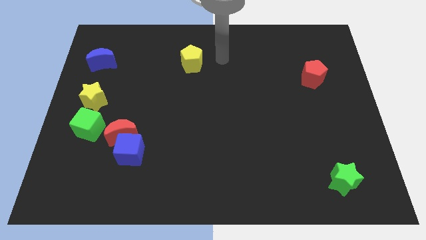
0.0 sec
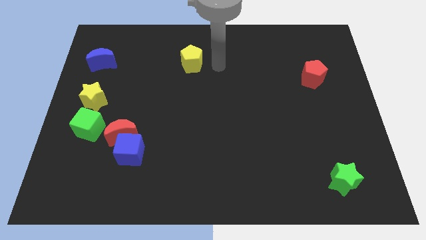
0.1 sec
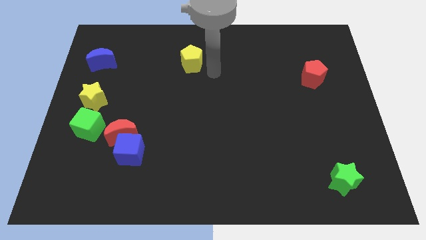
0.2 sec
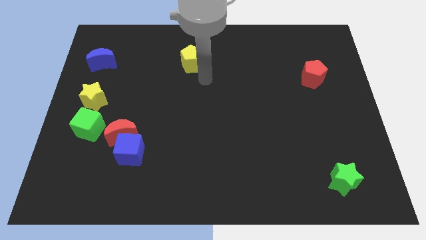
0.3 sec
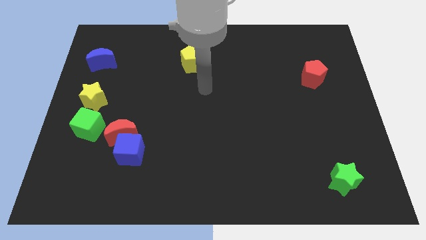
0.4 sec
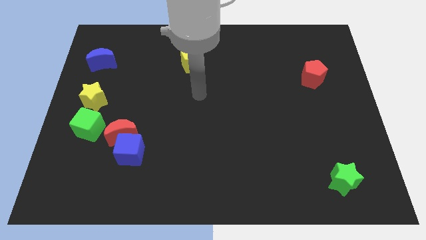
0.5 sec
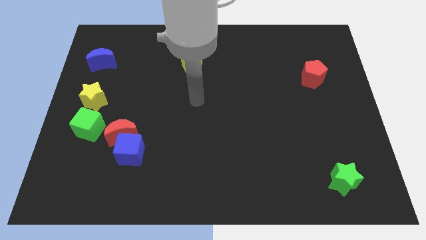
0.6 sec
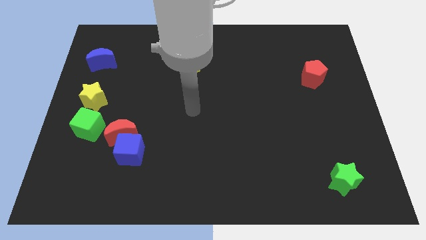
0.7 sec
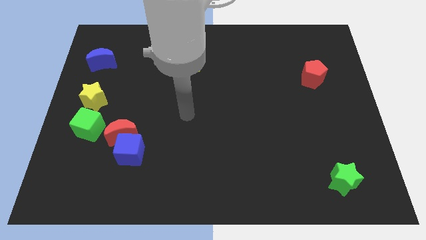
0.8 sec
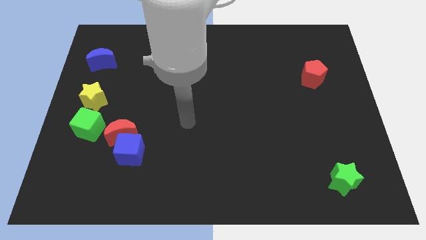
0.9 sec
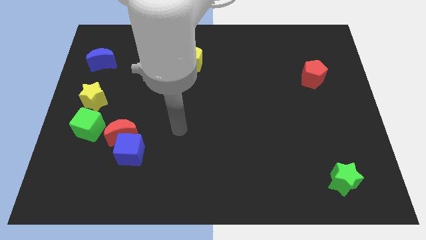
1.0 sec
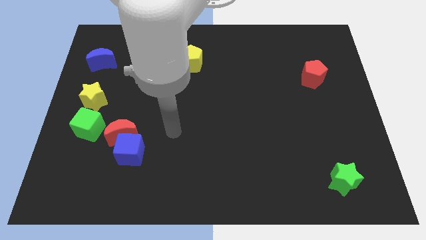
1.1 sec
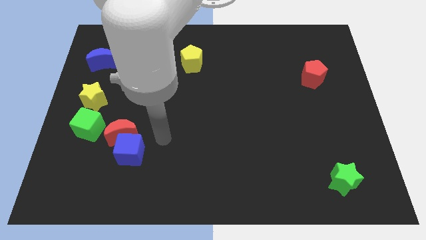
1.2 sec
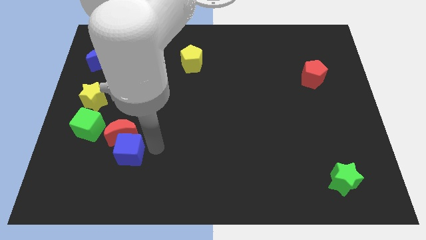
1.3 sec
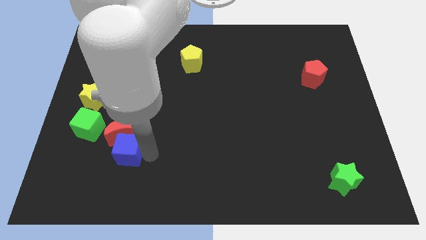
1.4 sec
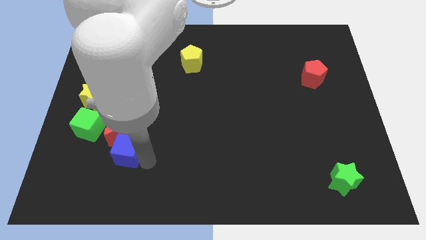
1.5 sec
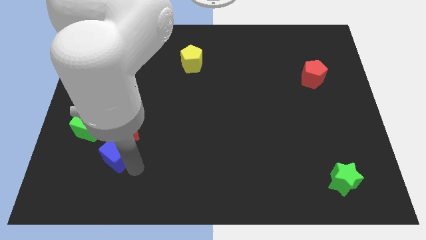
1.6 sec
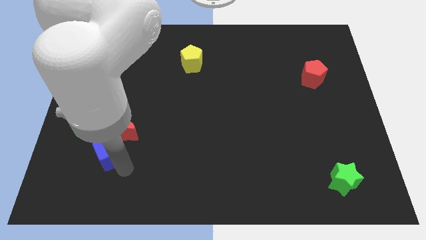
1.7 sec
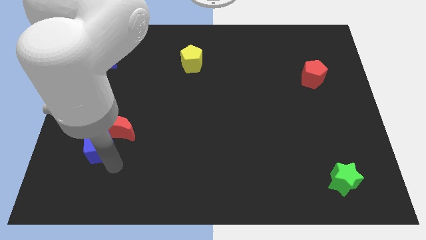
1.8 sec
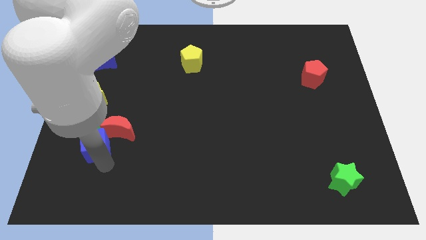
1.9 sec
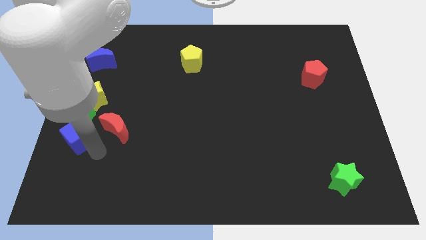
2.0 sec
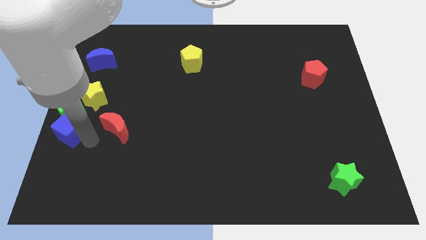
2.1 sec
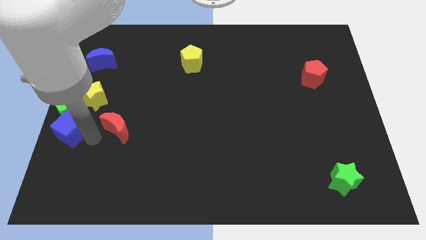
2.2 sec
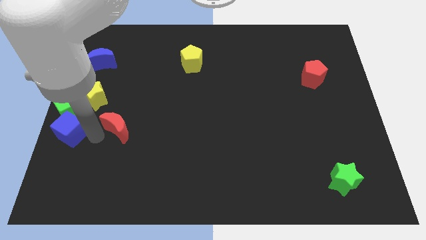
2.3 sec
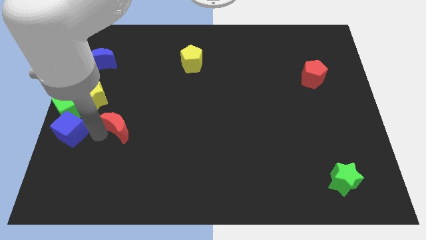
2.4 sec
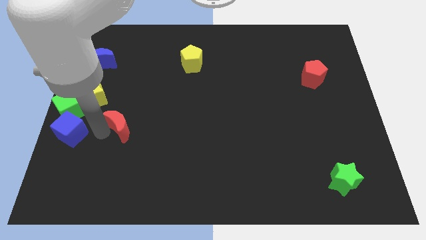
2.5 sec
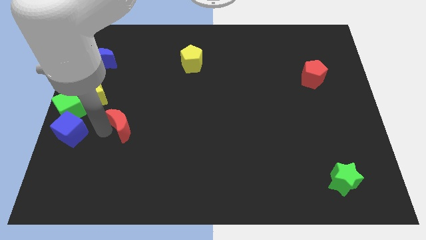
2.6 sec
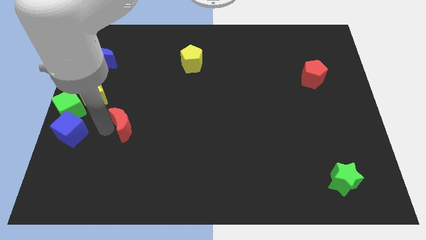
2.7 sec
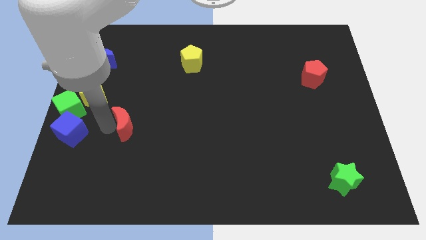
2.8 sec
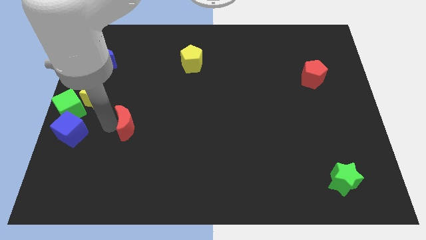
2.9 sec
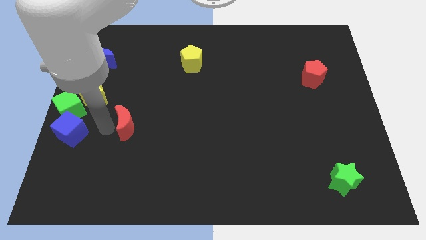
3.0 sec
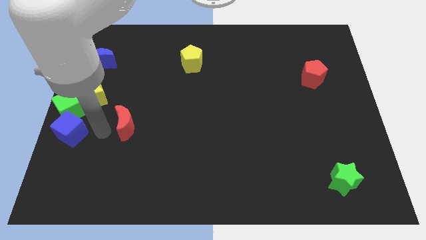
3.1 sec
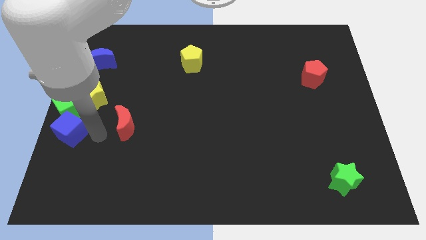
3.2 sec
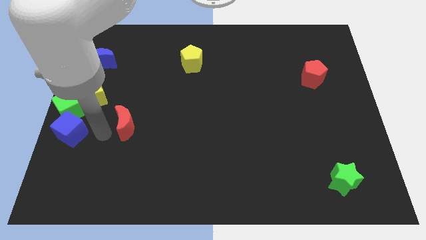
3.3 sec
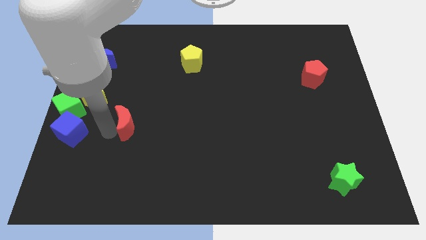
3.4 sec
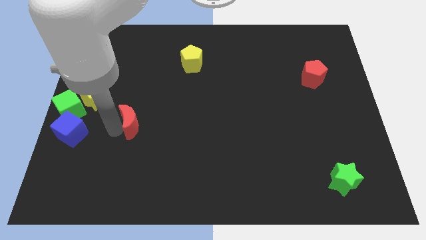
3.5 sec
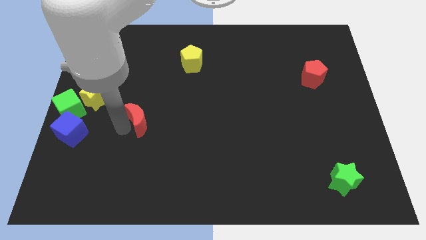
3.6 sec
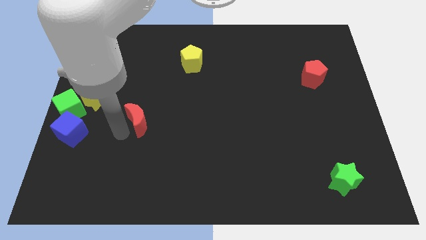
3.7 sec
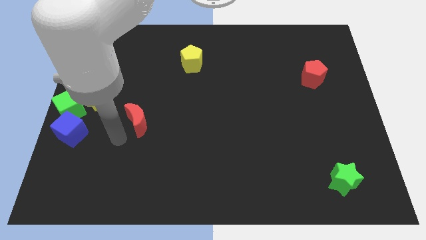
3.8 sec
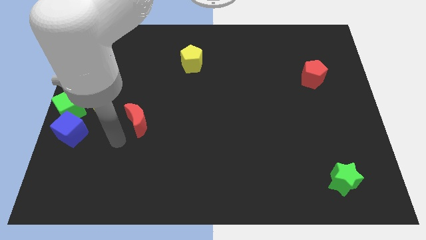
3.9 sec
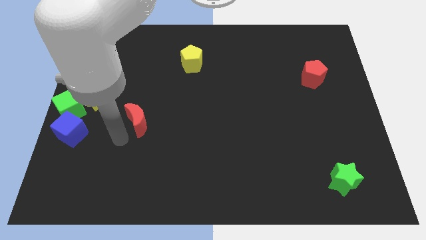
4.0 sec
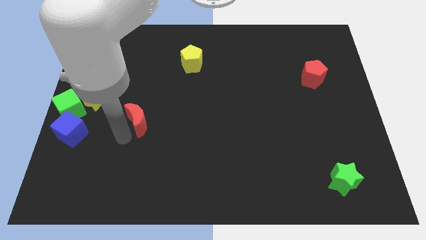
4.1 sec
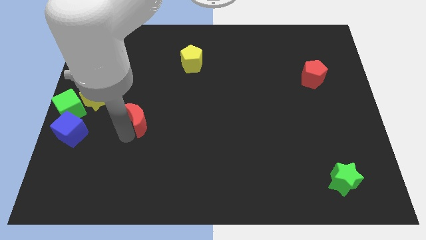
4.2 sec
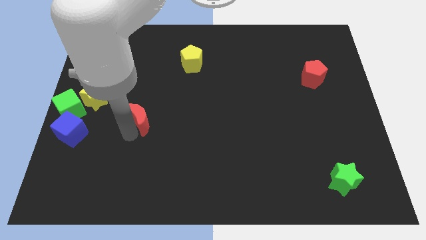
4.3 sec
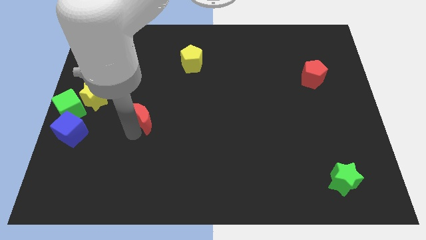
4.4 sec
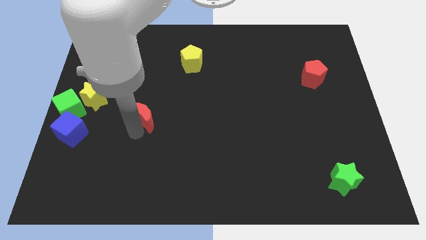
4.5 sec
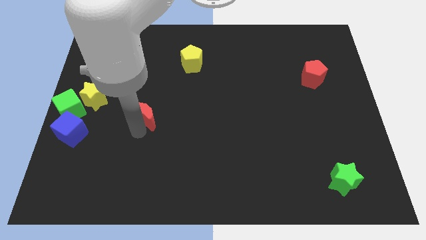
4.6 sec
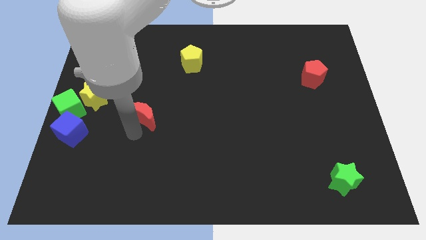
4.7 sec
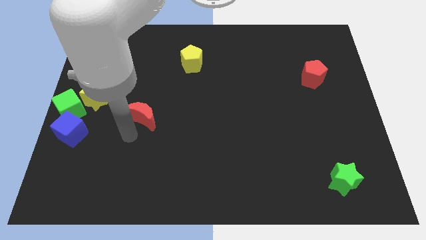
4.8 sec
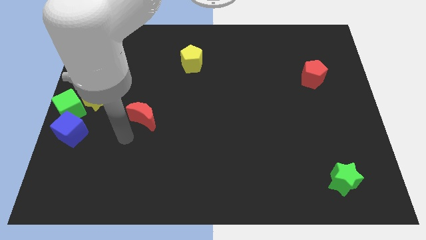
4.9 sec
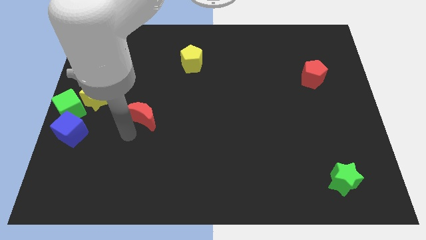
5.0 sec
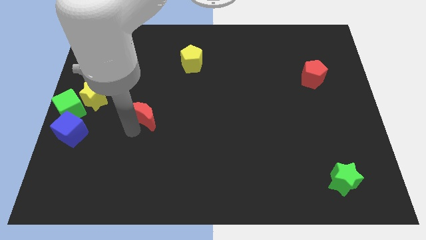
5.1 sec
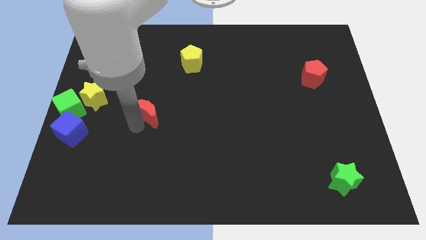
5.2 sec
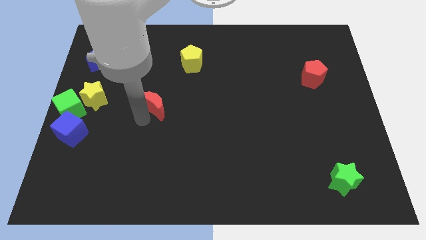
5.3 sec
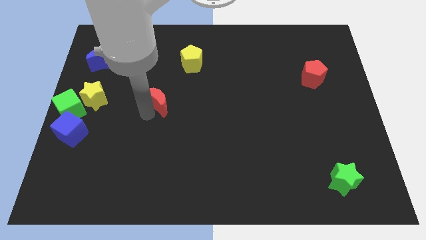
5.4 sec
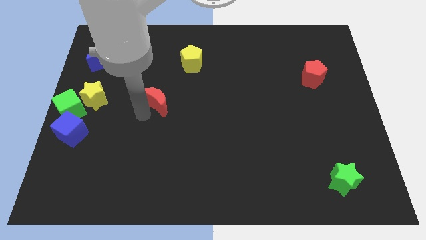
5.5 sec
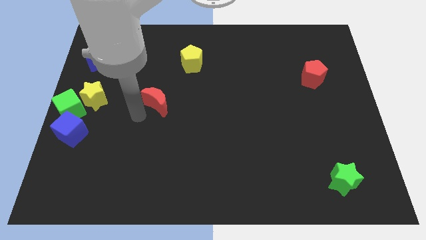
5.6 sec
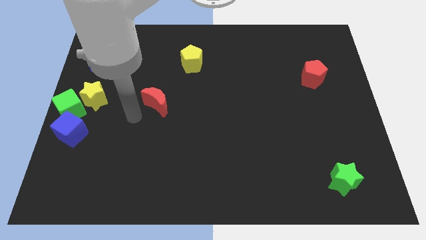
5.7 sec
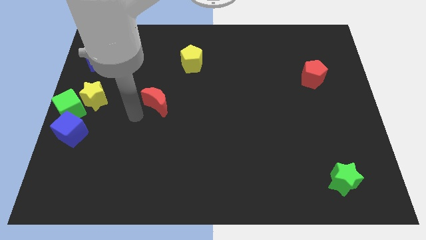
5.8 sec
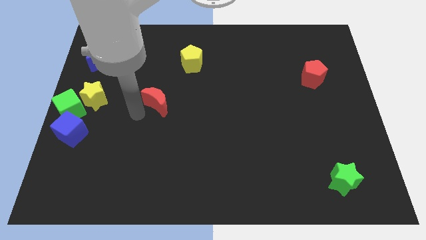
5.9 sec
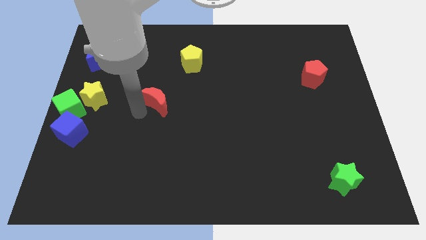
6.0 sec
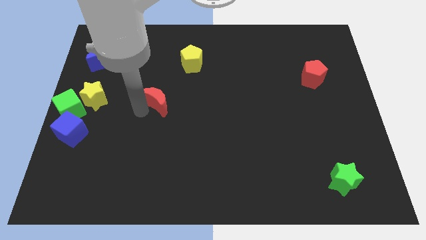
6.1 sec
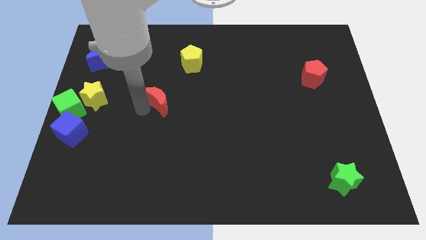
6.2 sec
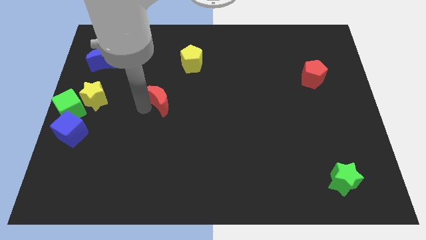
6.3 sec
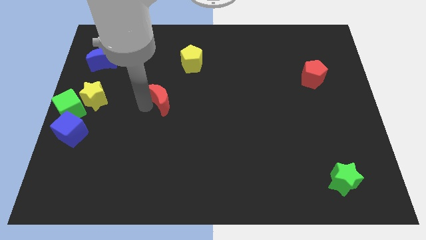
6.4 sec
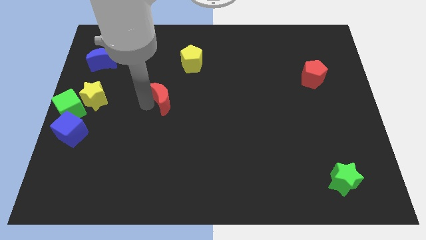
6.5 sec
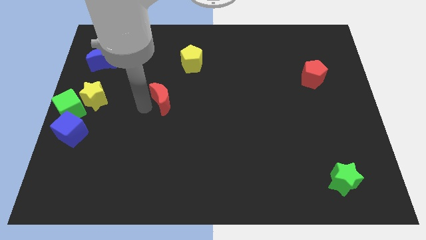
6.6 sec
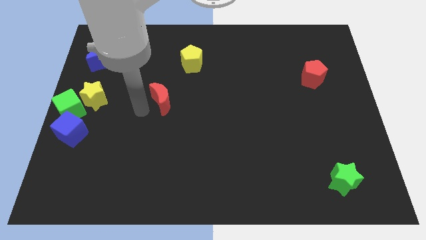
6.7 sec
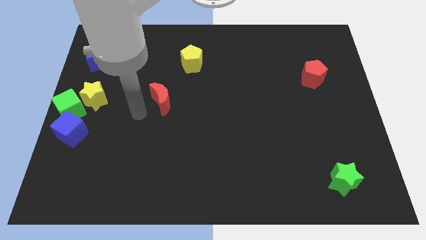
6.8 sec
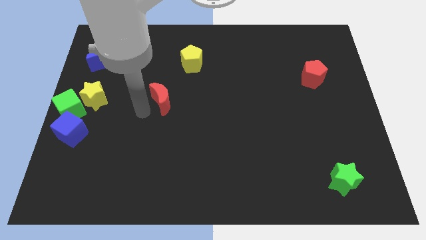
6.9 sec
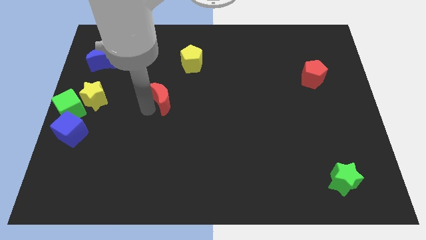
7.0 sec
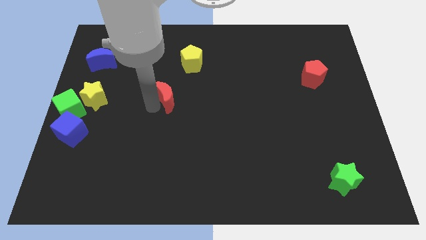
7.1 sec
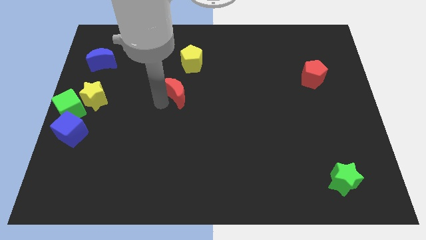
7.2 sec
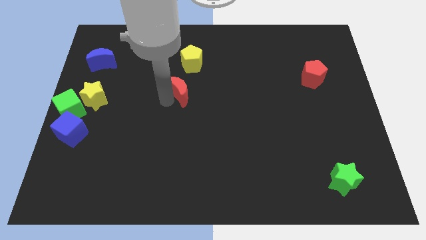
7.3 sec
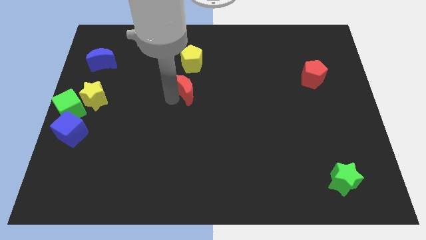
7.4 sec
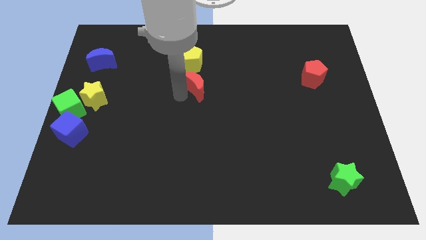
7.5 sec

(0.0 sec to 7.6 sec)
push the red moon upwards and then right

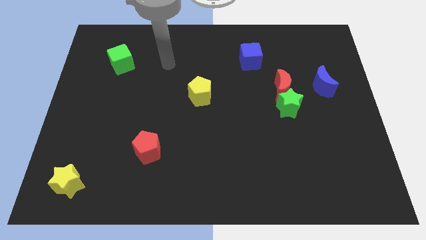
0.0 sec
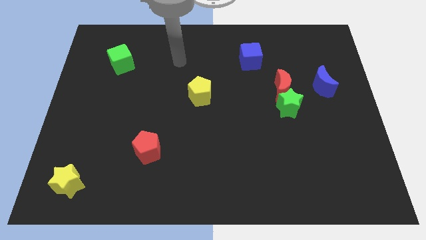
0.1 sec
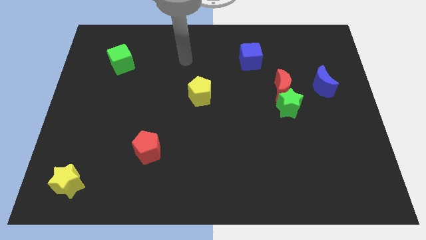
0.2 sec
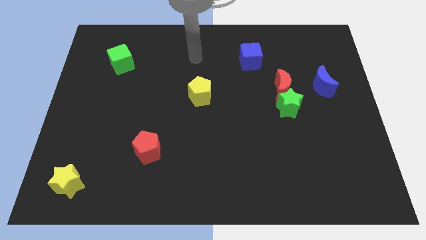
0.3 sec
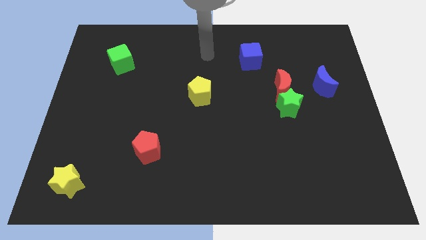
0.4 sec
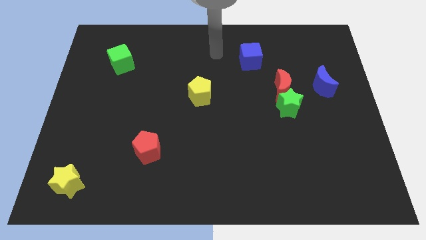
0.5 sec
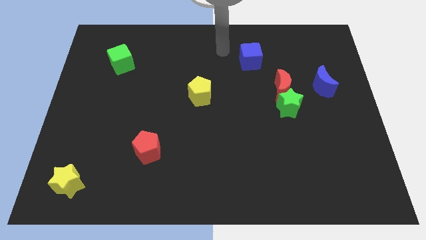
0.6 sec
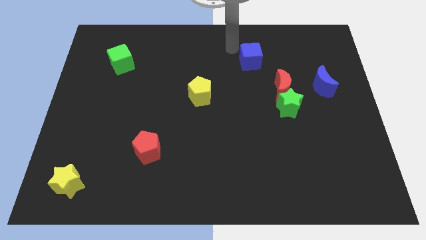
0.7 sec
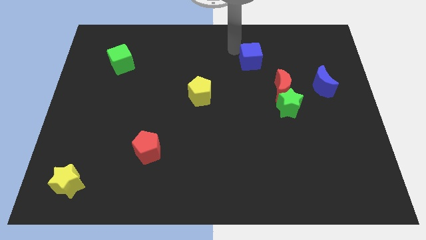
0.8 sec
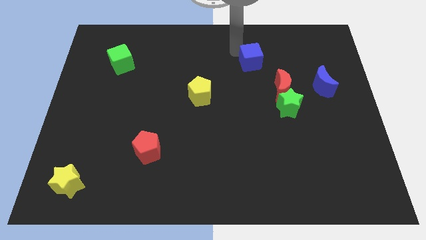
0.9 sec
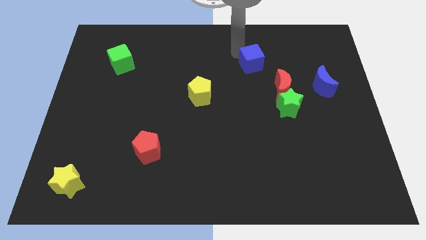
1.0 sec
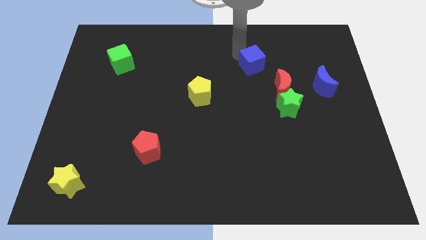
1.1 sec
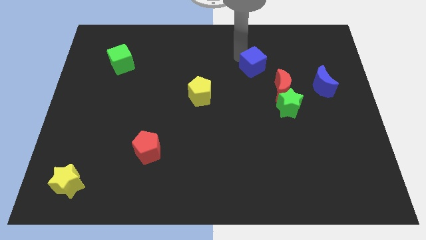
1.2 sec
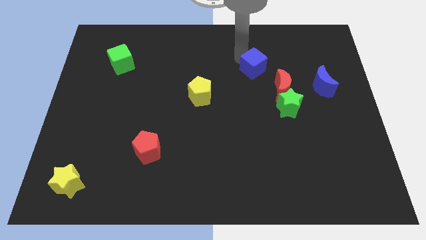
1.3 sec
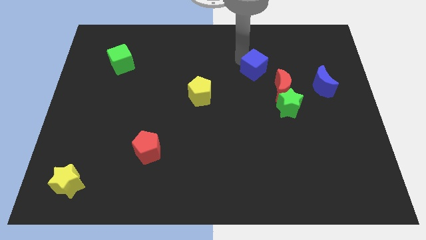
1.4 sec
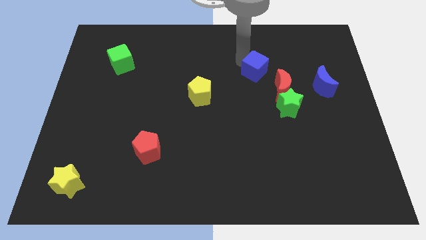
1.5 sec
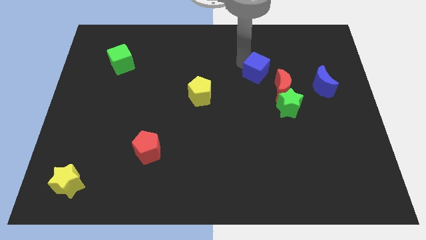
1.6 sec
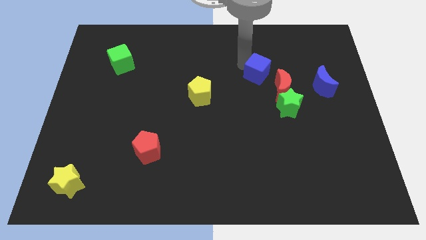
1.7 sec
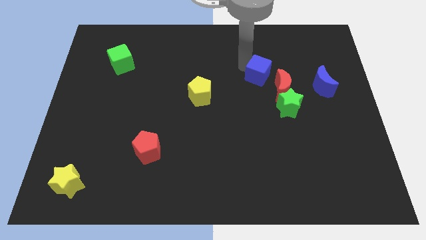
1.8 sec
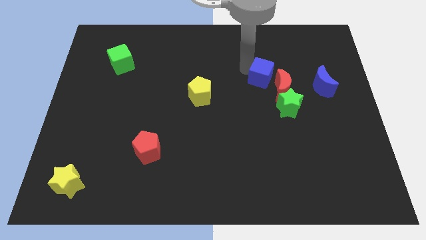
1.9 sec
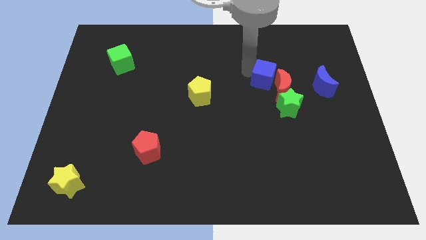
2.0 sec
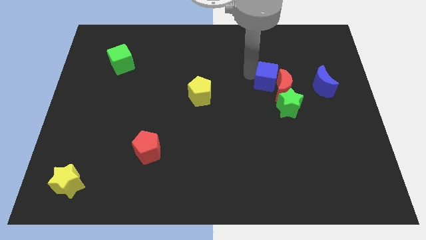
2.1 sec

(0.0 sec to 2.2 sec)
slightly push the blue cube downwards and then to the right
